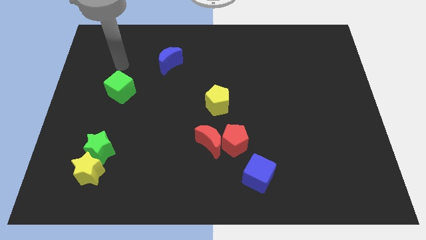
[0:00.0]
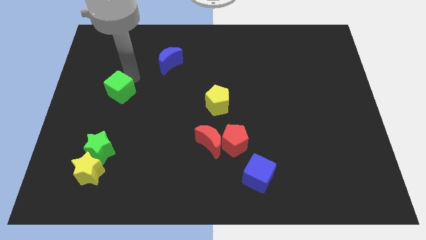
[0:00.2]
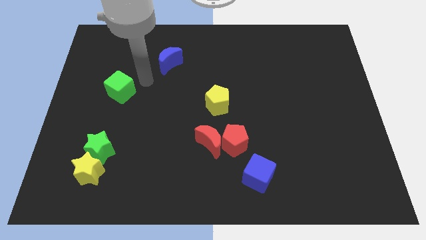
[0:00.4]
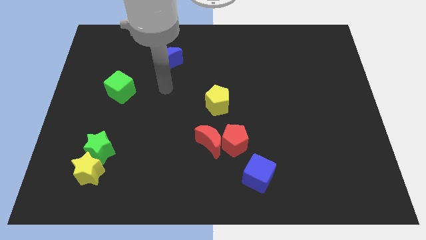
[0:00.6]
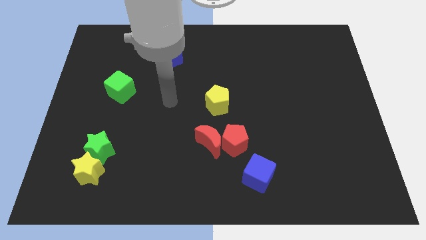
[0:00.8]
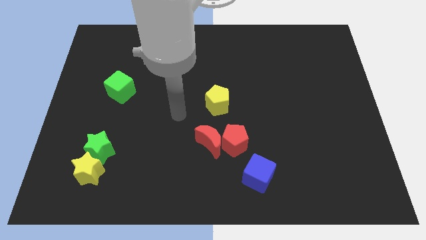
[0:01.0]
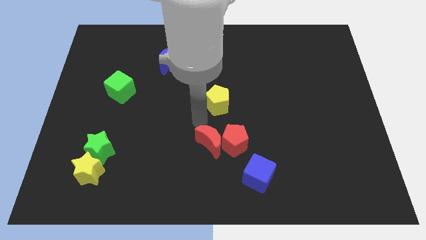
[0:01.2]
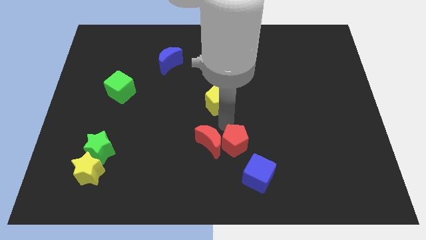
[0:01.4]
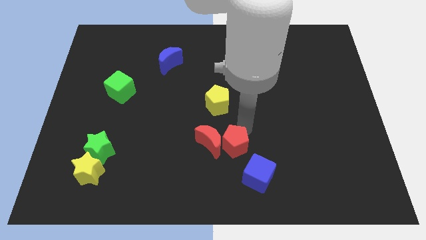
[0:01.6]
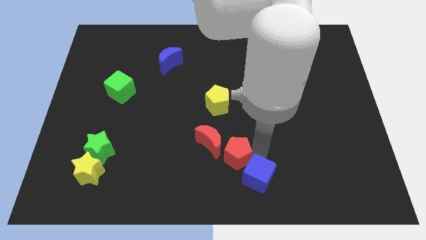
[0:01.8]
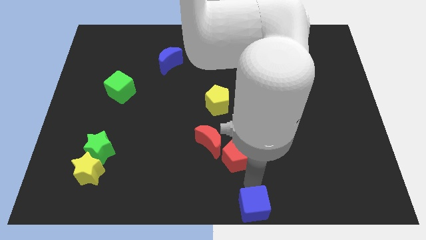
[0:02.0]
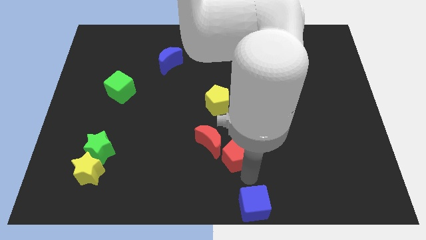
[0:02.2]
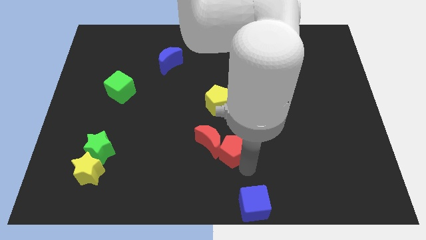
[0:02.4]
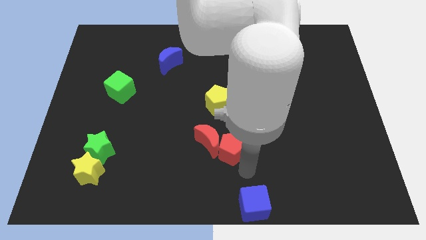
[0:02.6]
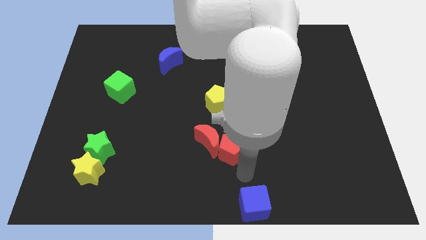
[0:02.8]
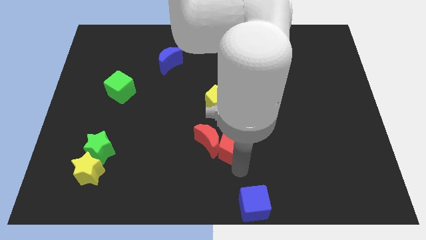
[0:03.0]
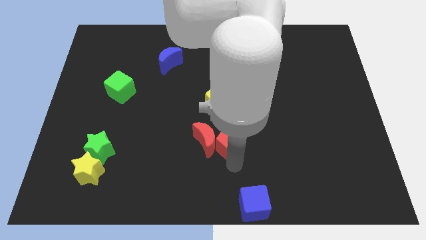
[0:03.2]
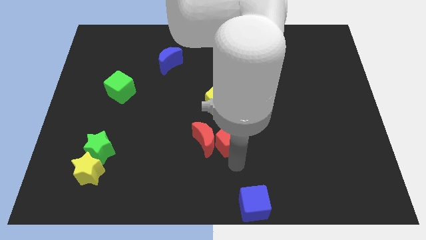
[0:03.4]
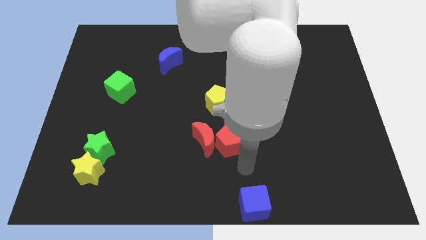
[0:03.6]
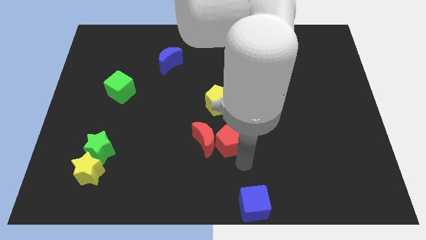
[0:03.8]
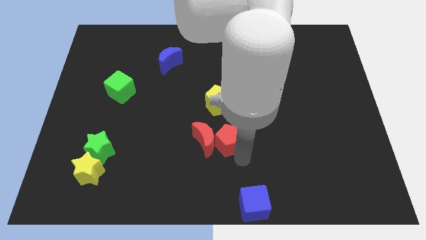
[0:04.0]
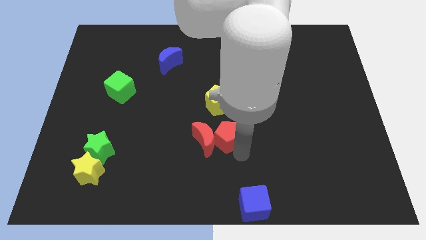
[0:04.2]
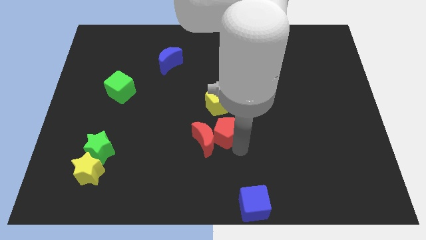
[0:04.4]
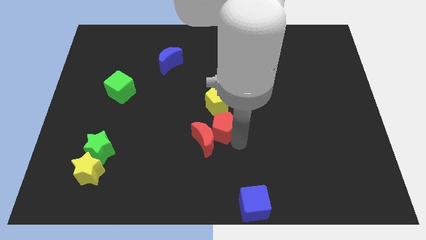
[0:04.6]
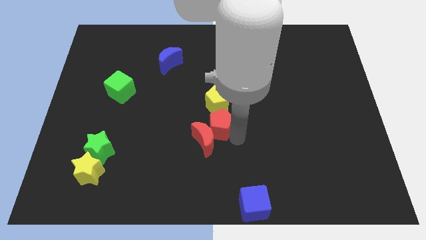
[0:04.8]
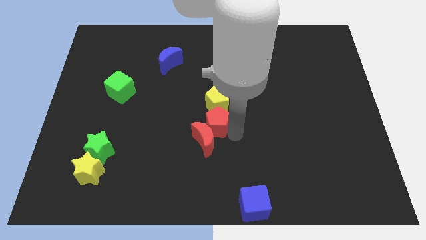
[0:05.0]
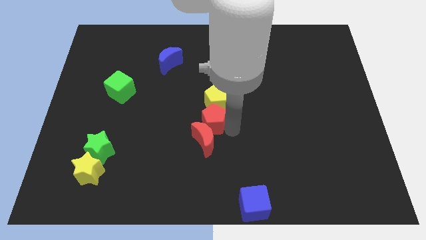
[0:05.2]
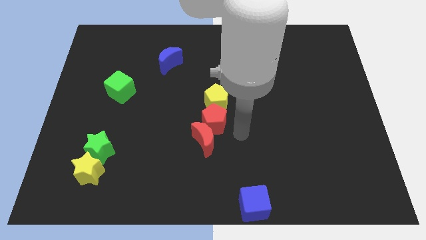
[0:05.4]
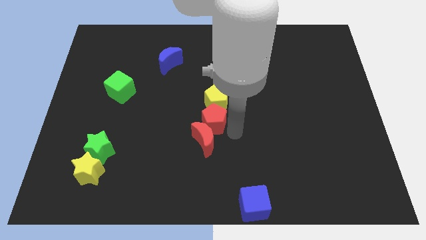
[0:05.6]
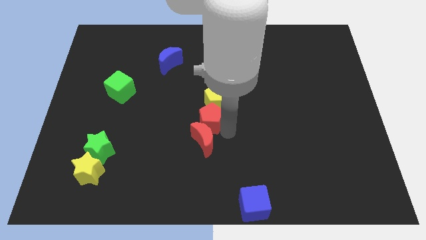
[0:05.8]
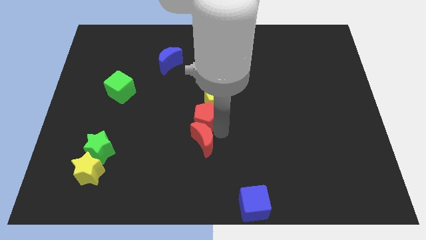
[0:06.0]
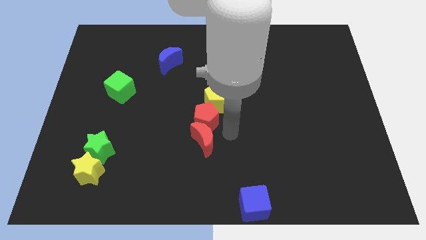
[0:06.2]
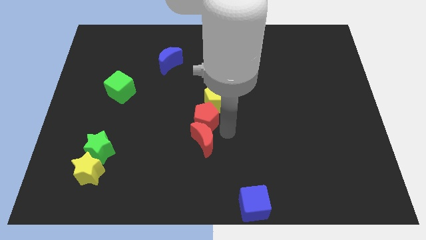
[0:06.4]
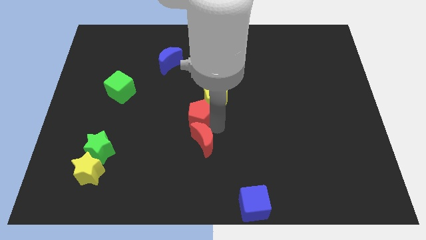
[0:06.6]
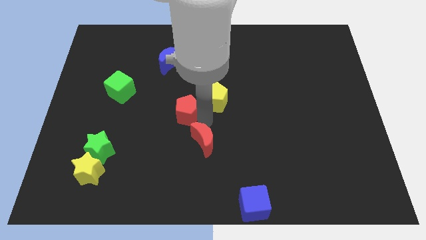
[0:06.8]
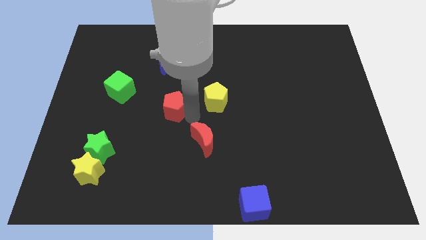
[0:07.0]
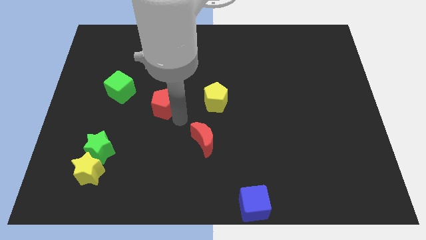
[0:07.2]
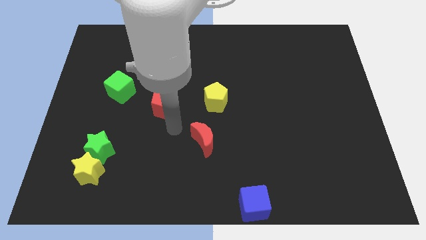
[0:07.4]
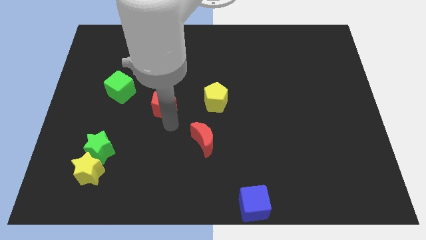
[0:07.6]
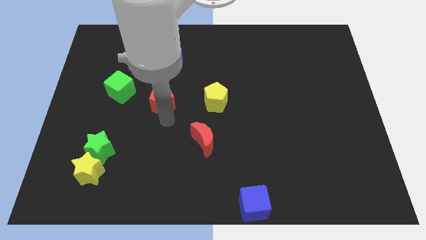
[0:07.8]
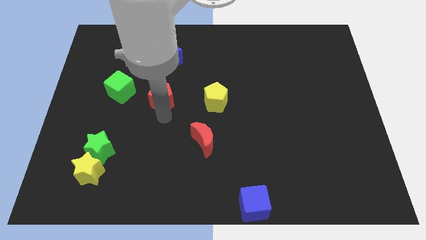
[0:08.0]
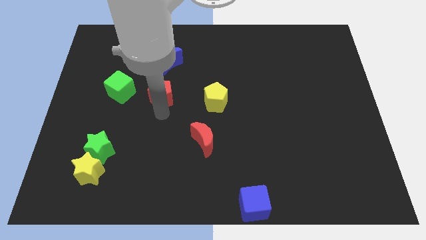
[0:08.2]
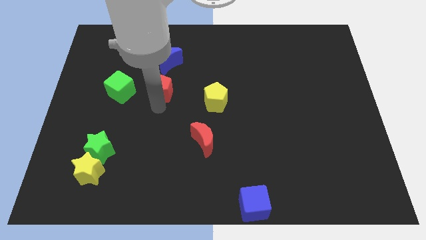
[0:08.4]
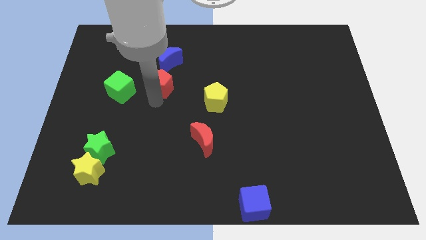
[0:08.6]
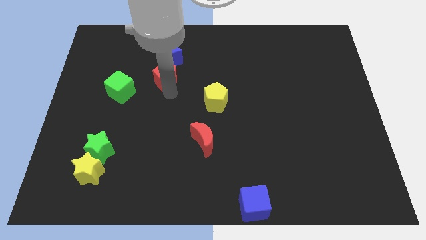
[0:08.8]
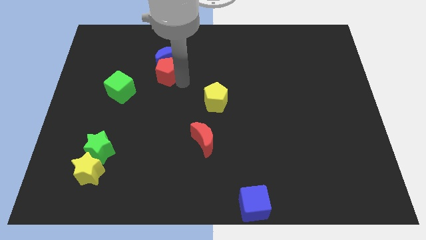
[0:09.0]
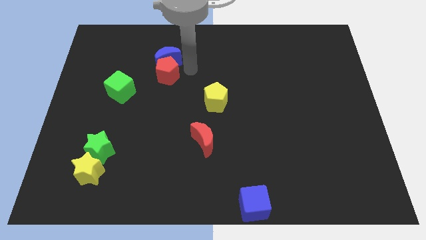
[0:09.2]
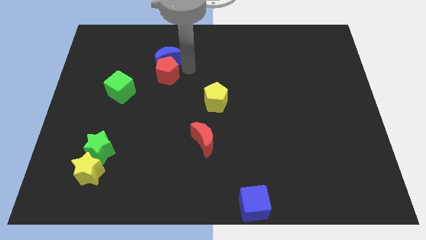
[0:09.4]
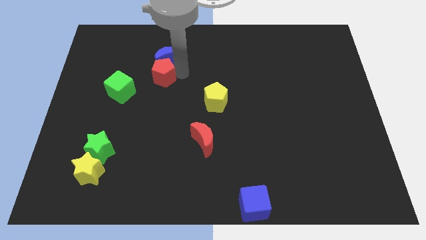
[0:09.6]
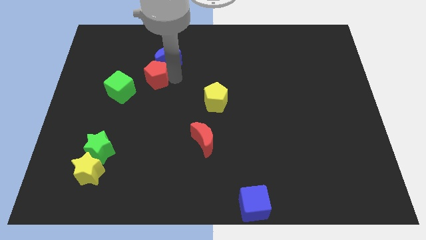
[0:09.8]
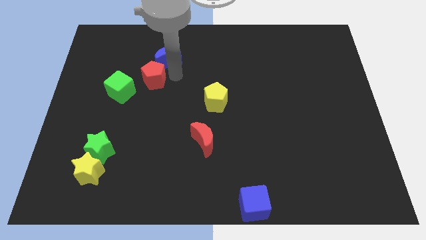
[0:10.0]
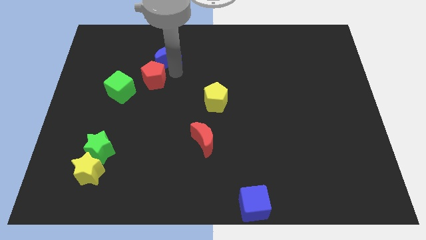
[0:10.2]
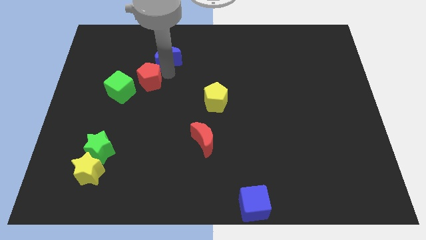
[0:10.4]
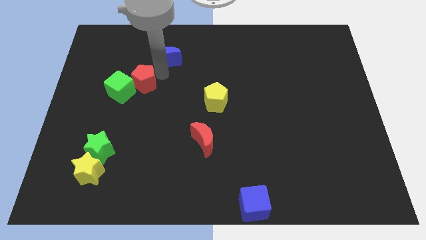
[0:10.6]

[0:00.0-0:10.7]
slide the red pentagon next to the green cube
